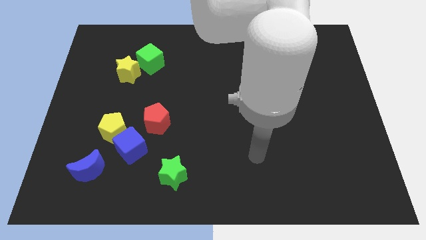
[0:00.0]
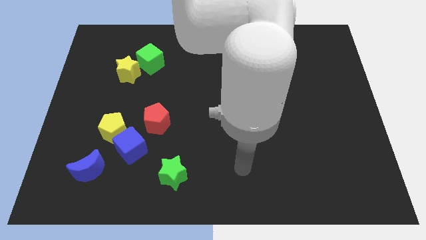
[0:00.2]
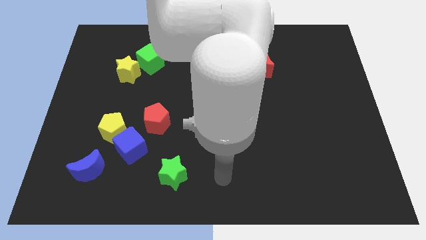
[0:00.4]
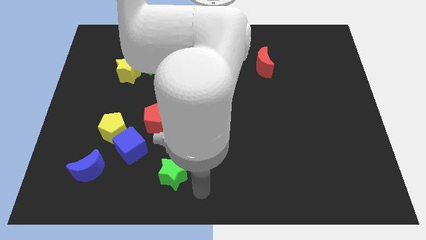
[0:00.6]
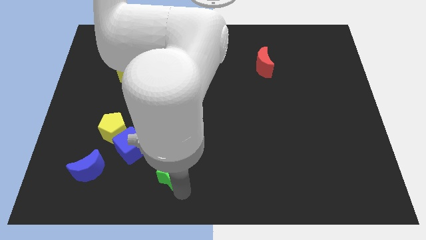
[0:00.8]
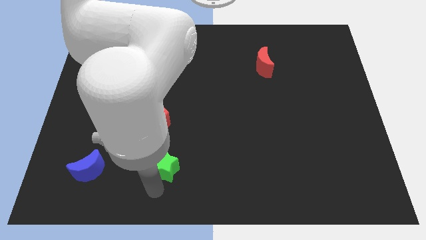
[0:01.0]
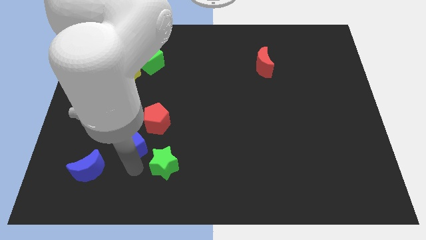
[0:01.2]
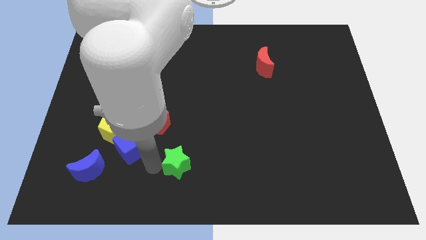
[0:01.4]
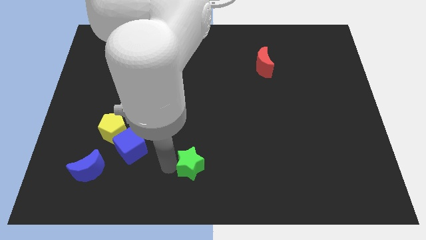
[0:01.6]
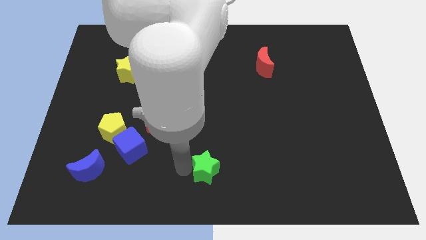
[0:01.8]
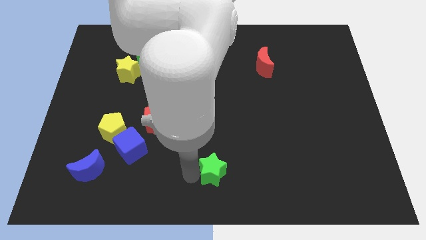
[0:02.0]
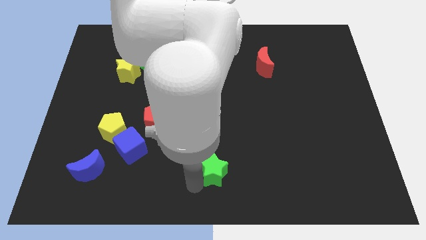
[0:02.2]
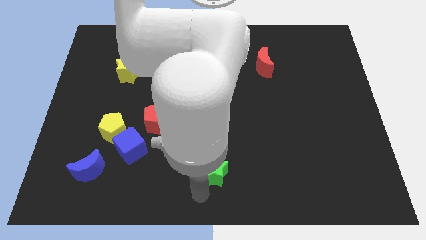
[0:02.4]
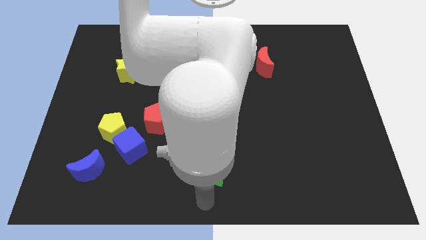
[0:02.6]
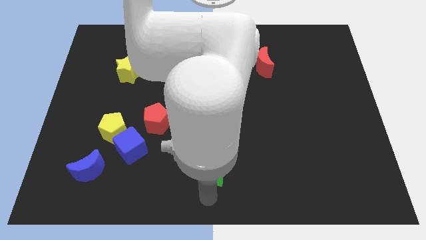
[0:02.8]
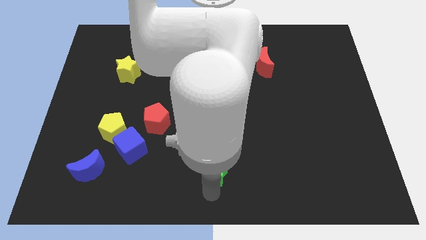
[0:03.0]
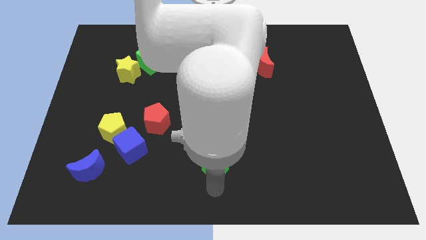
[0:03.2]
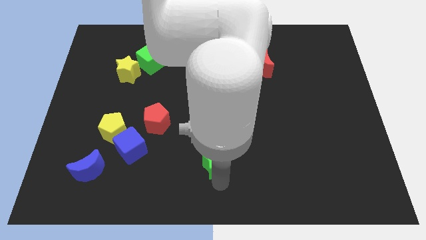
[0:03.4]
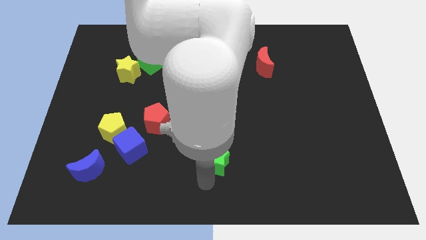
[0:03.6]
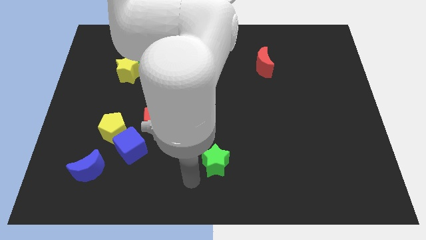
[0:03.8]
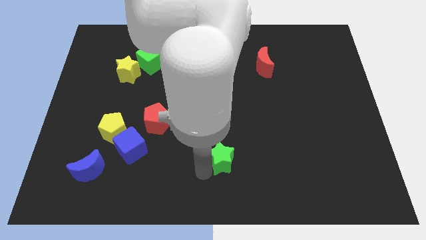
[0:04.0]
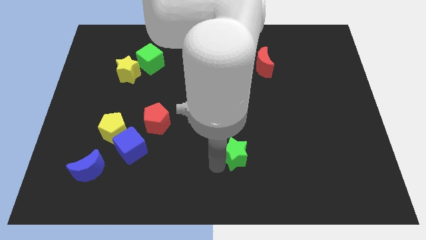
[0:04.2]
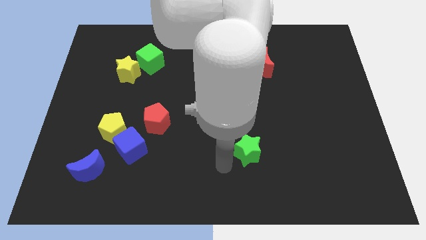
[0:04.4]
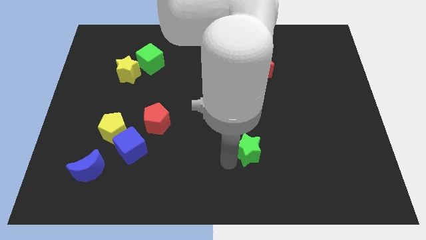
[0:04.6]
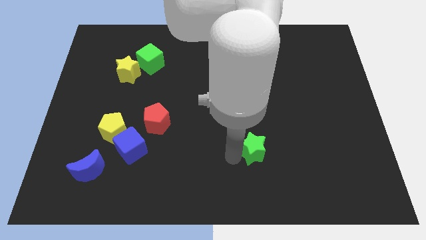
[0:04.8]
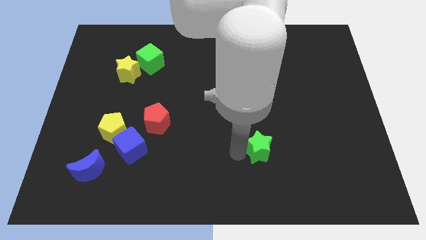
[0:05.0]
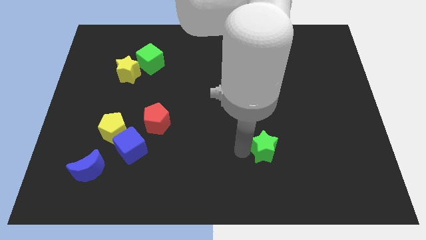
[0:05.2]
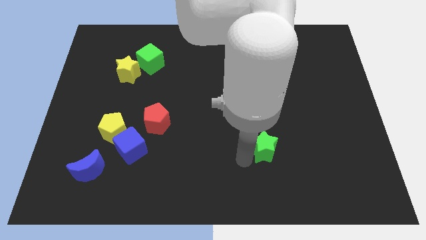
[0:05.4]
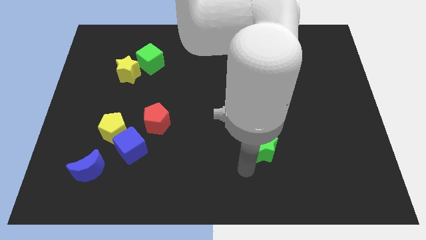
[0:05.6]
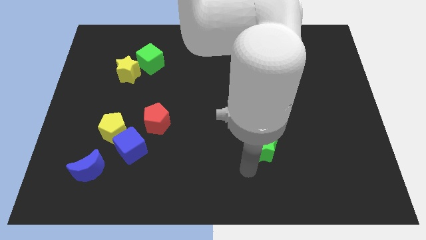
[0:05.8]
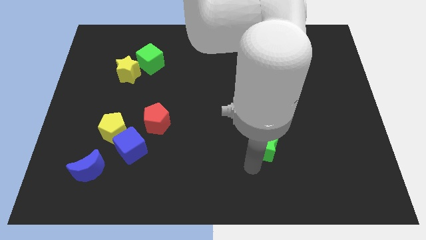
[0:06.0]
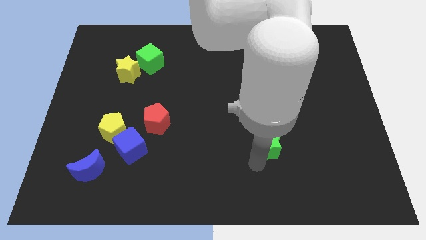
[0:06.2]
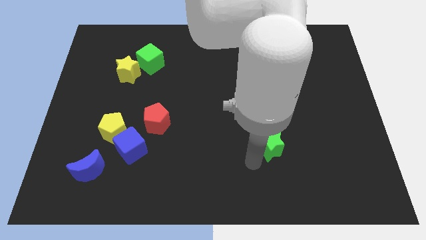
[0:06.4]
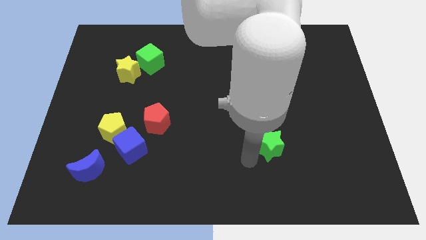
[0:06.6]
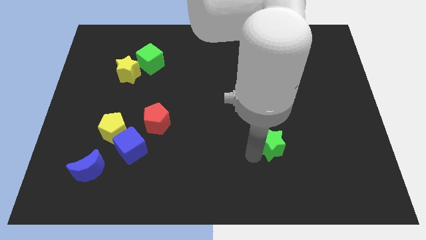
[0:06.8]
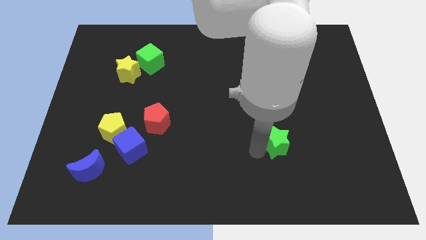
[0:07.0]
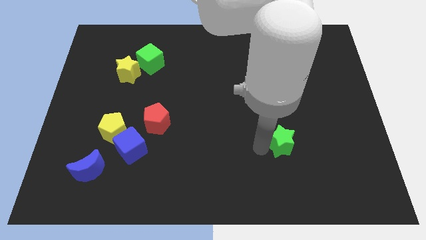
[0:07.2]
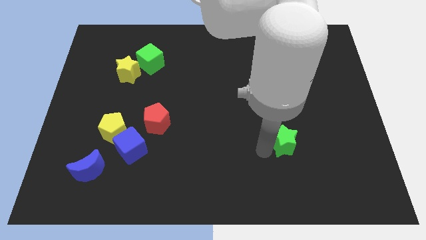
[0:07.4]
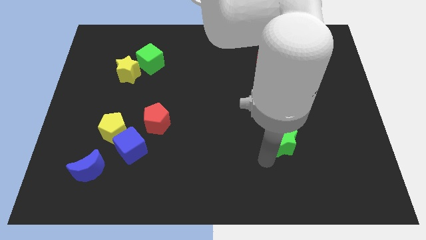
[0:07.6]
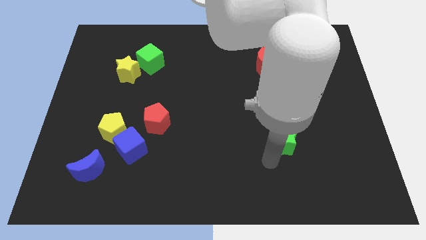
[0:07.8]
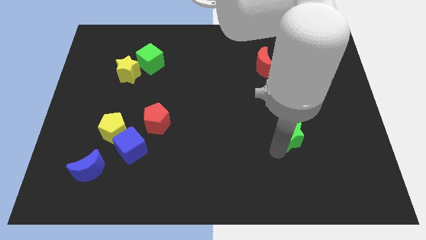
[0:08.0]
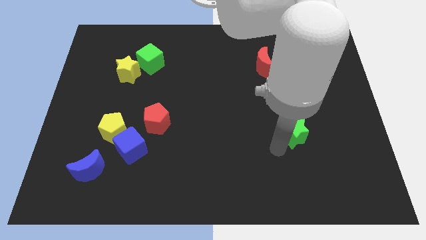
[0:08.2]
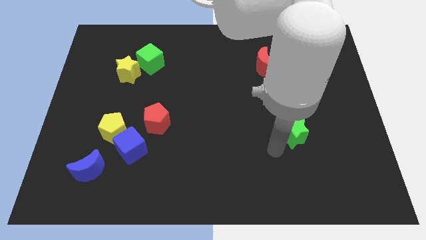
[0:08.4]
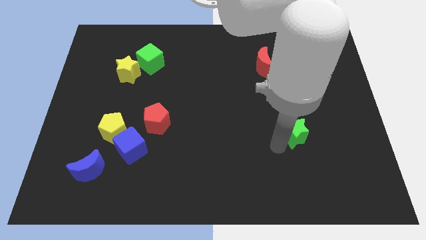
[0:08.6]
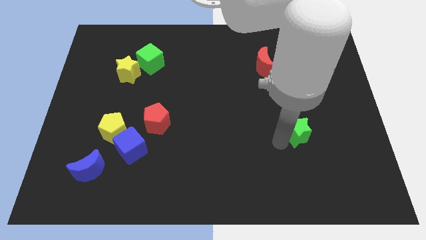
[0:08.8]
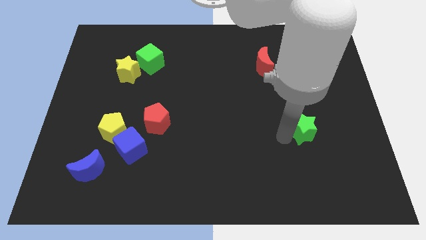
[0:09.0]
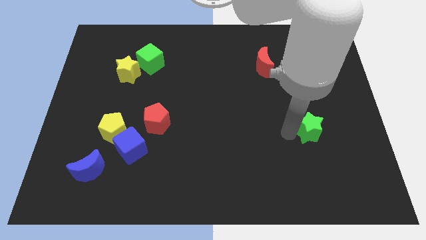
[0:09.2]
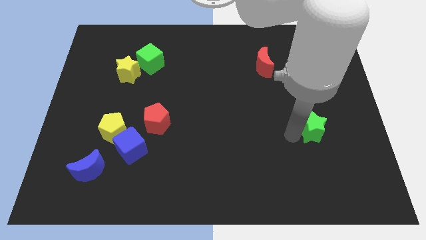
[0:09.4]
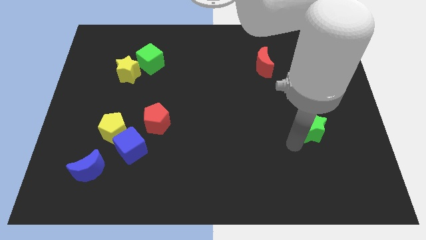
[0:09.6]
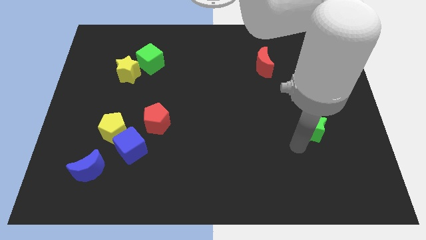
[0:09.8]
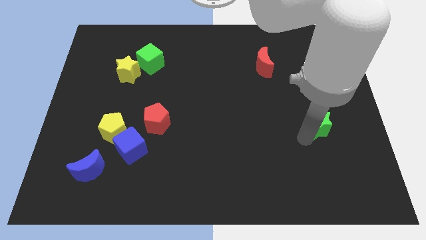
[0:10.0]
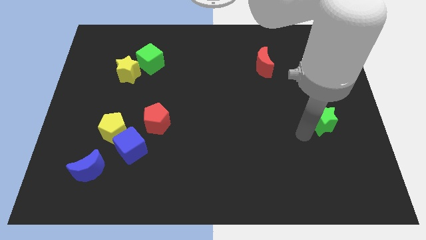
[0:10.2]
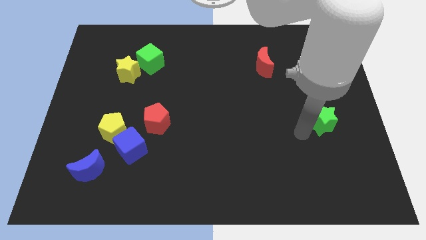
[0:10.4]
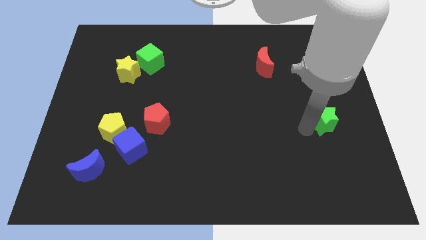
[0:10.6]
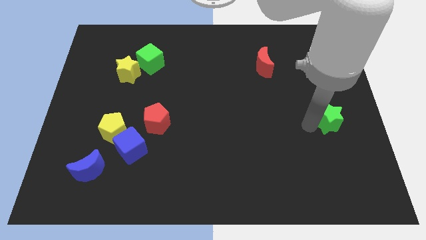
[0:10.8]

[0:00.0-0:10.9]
push the green star to the right side of the board
